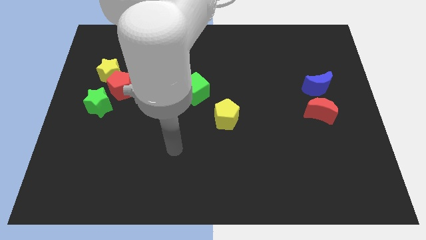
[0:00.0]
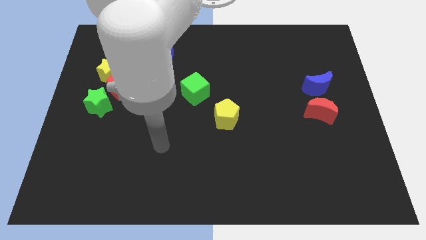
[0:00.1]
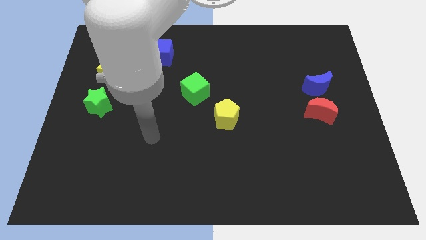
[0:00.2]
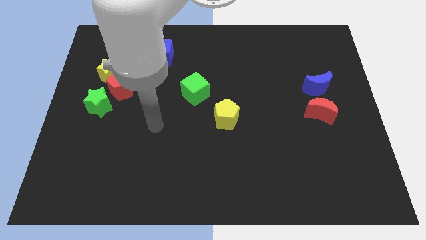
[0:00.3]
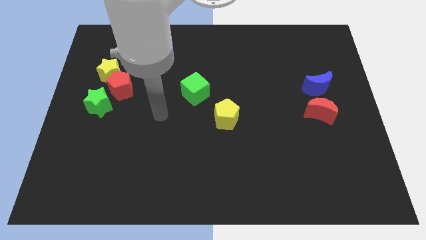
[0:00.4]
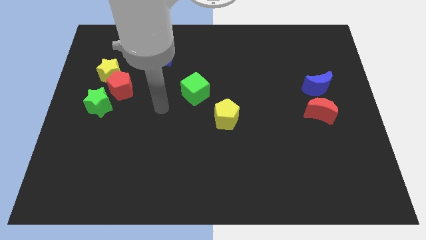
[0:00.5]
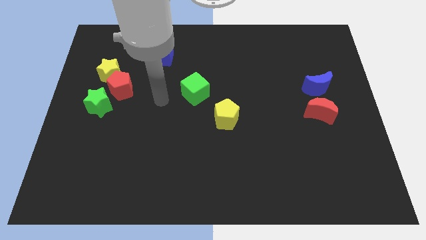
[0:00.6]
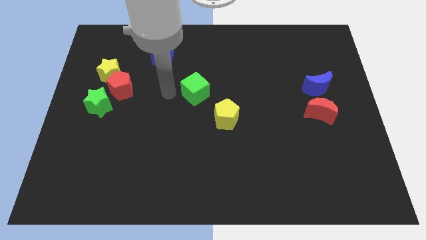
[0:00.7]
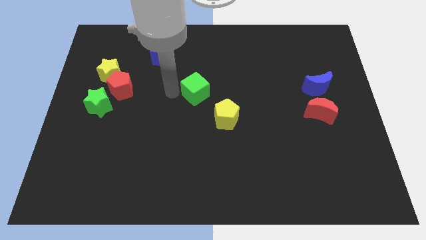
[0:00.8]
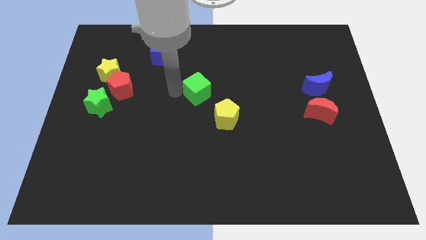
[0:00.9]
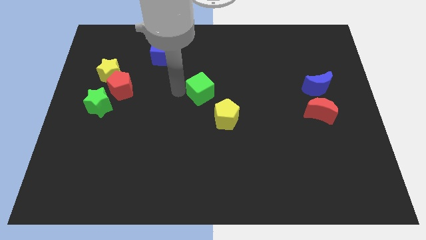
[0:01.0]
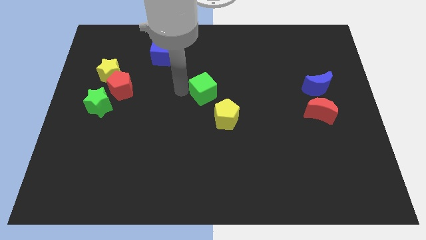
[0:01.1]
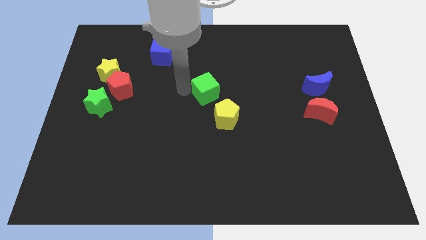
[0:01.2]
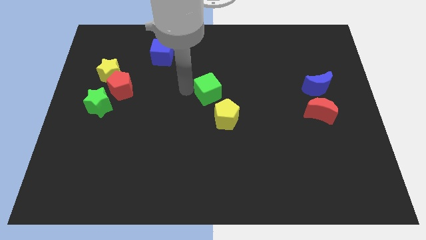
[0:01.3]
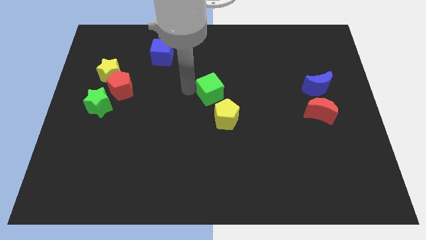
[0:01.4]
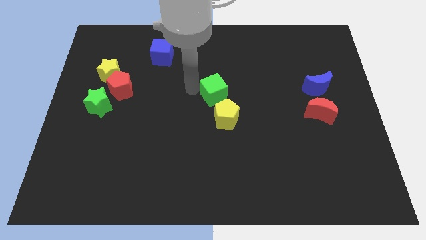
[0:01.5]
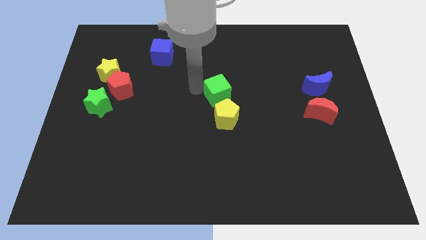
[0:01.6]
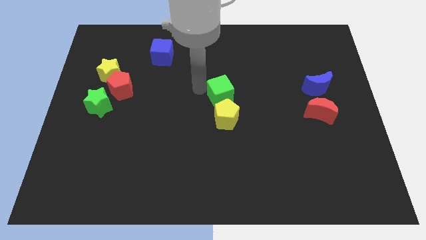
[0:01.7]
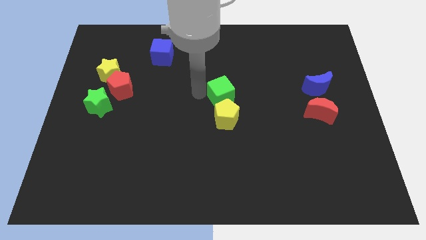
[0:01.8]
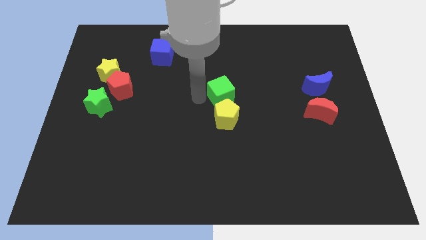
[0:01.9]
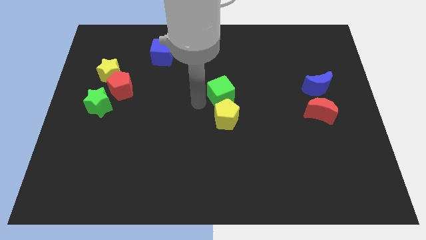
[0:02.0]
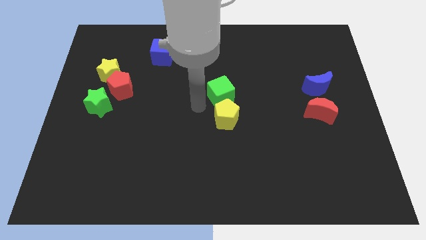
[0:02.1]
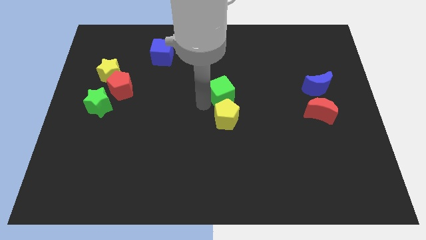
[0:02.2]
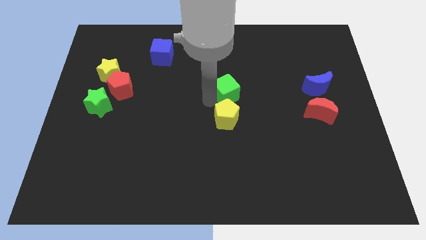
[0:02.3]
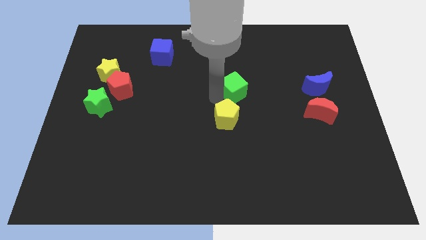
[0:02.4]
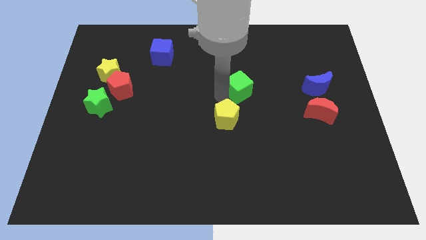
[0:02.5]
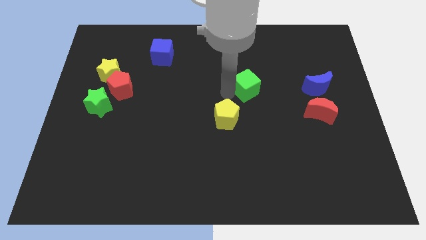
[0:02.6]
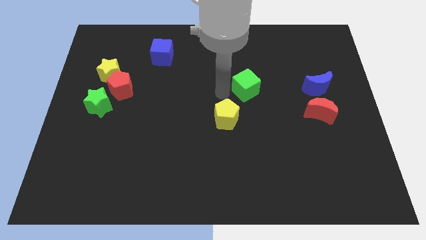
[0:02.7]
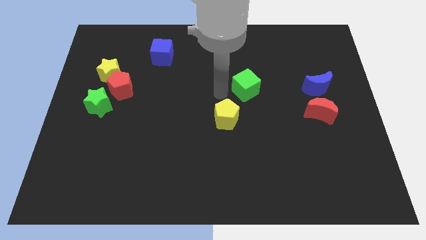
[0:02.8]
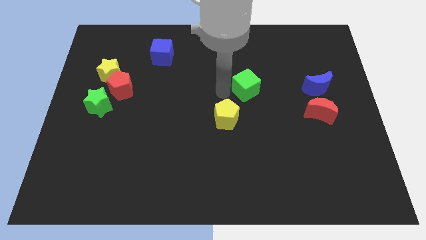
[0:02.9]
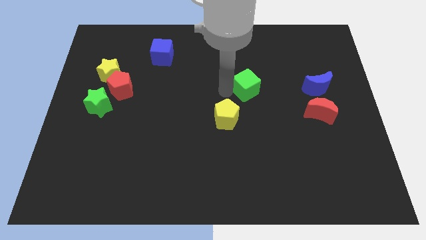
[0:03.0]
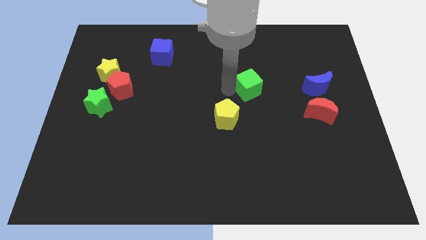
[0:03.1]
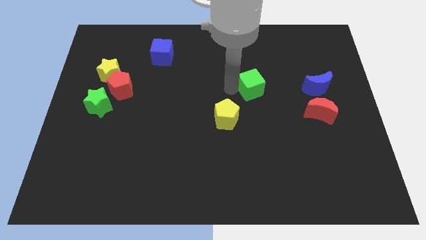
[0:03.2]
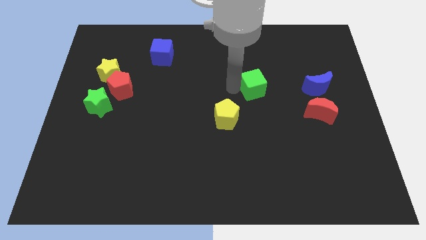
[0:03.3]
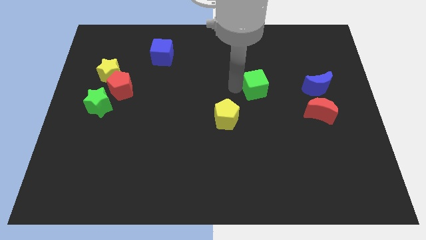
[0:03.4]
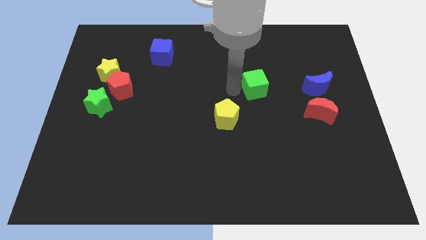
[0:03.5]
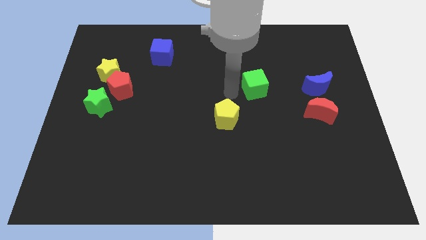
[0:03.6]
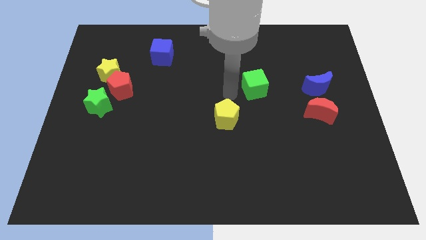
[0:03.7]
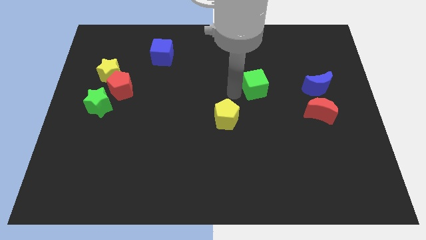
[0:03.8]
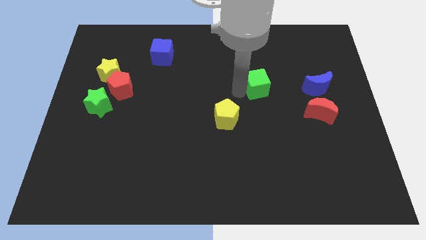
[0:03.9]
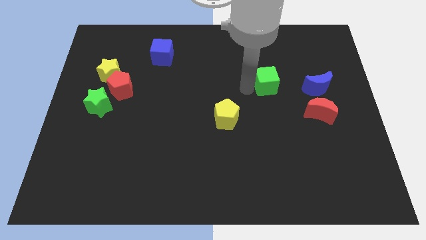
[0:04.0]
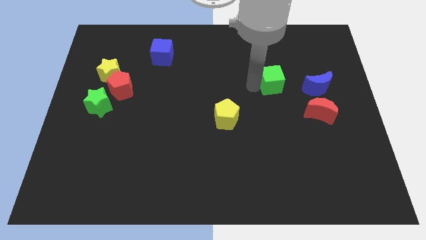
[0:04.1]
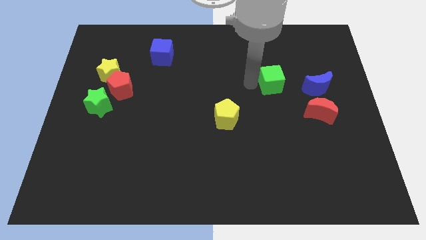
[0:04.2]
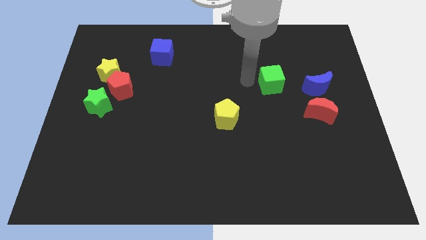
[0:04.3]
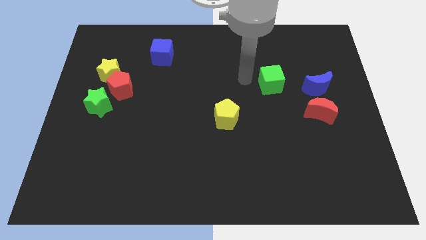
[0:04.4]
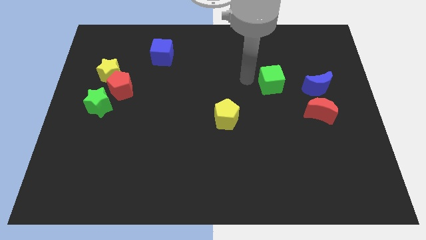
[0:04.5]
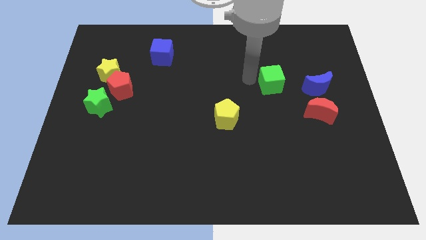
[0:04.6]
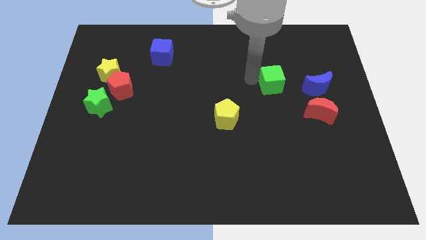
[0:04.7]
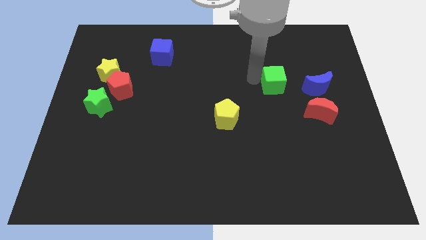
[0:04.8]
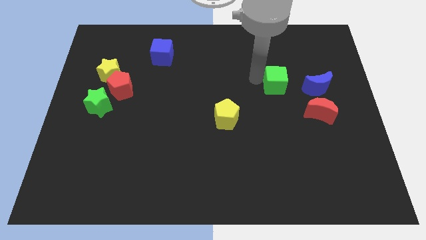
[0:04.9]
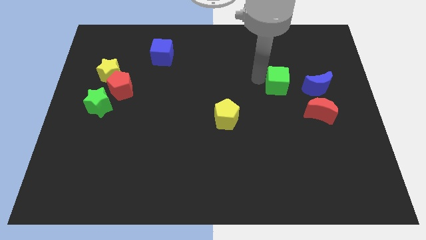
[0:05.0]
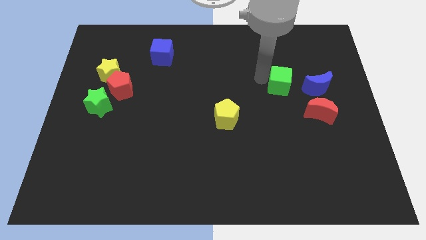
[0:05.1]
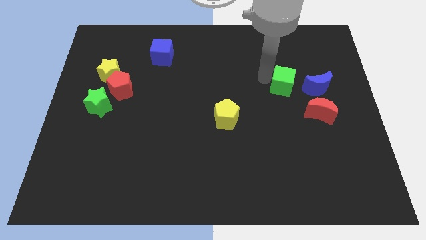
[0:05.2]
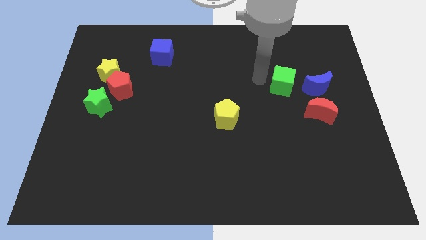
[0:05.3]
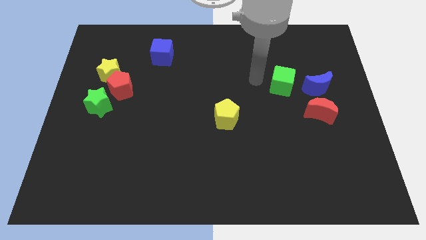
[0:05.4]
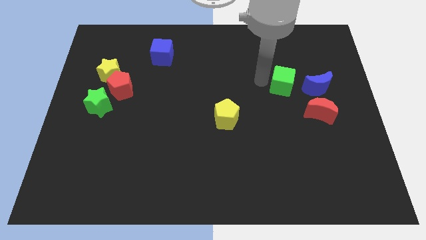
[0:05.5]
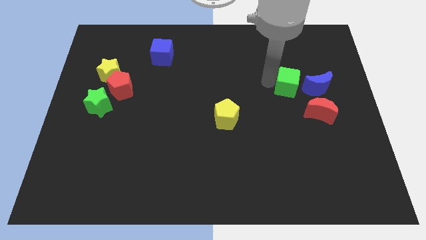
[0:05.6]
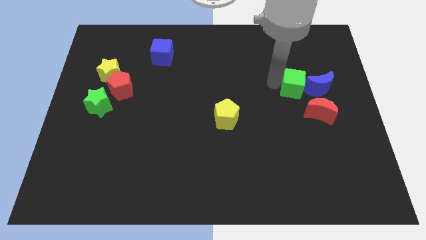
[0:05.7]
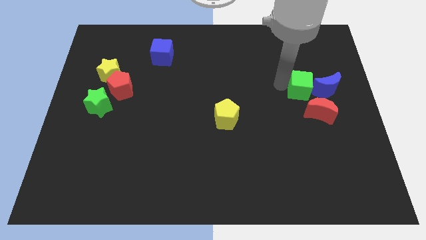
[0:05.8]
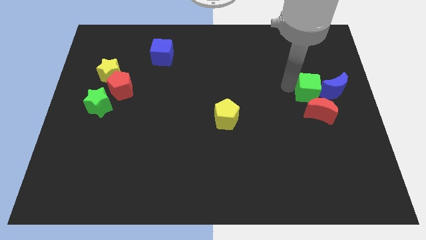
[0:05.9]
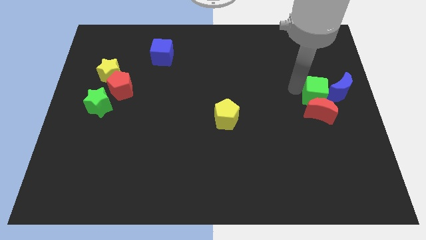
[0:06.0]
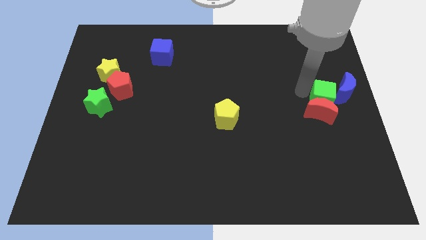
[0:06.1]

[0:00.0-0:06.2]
move the green cube next to the blue moon

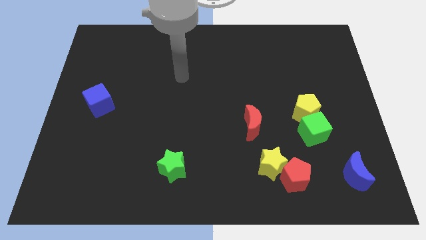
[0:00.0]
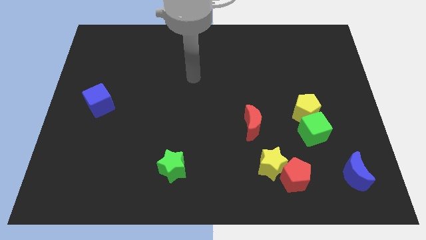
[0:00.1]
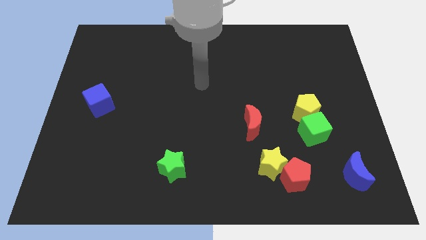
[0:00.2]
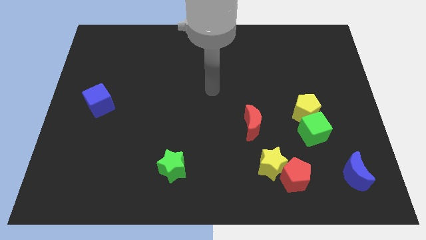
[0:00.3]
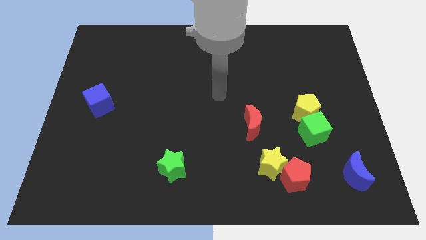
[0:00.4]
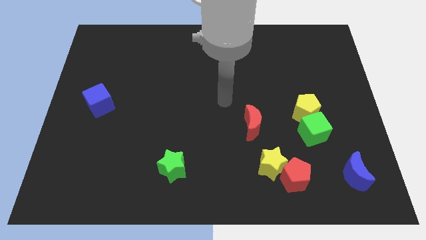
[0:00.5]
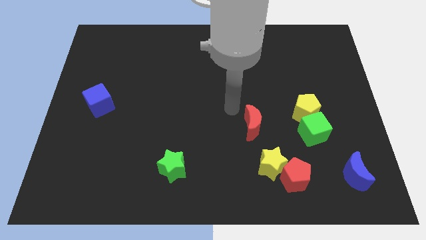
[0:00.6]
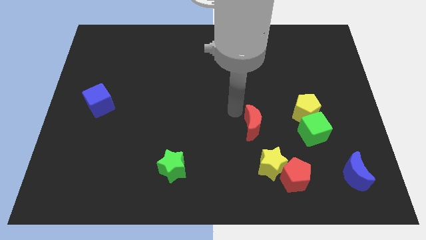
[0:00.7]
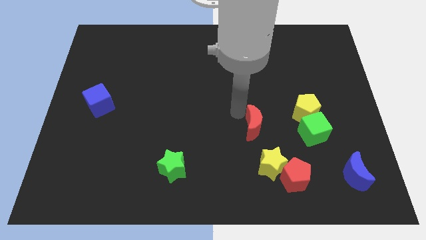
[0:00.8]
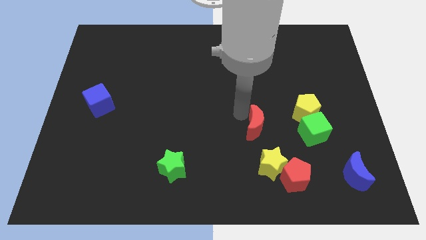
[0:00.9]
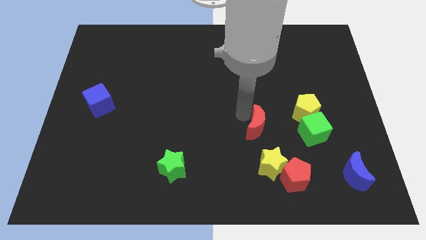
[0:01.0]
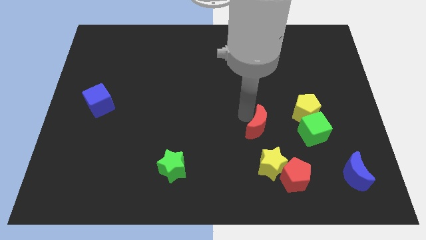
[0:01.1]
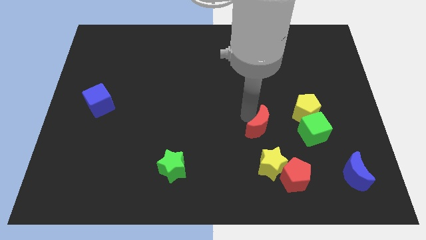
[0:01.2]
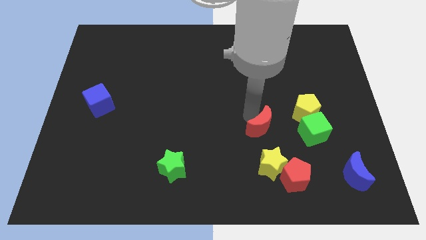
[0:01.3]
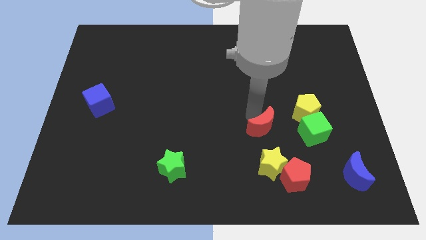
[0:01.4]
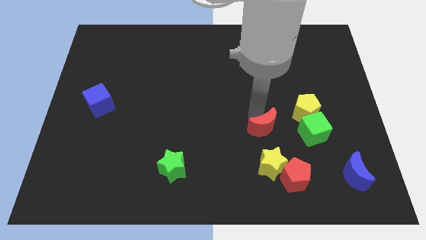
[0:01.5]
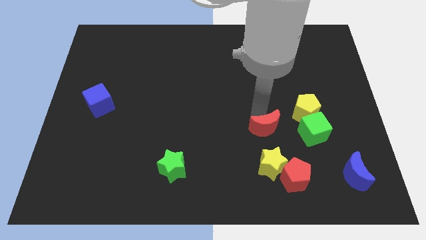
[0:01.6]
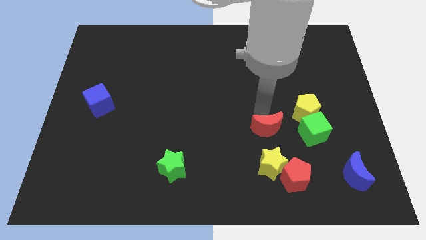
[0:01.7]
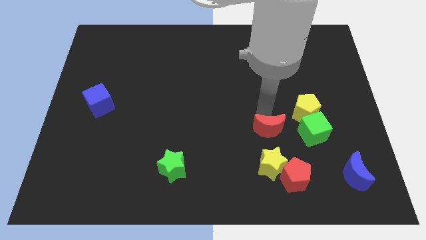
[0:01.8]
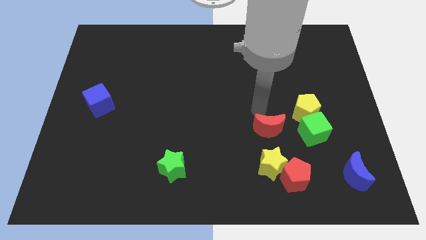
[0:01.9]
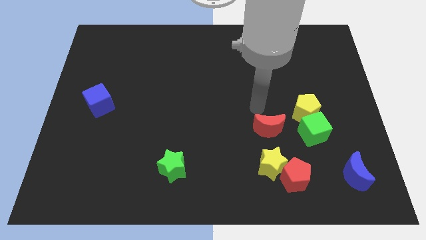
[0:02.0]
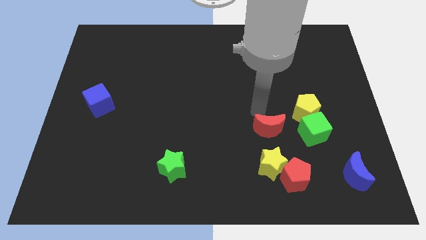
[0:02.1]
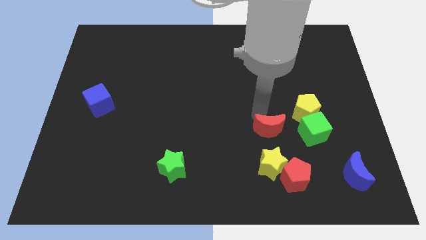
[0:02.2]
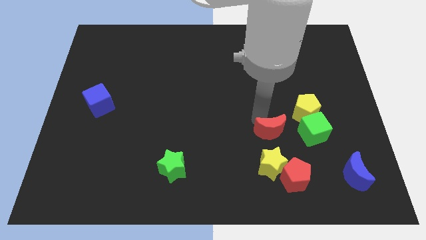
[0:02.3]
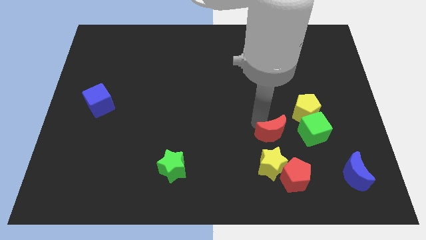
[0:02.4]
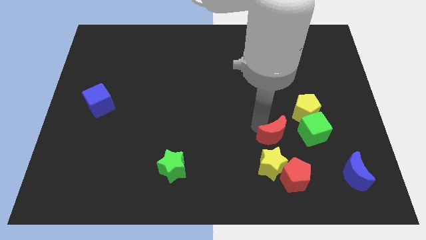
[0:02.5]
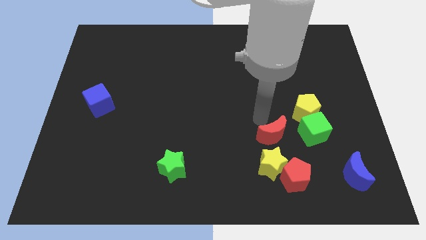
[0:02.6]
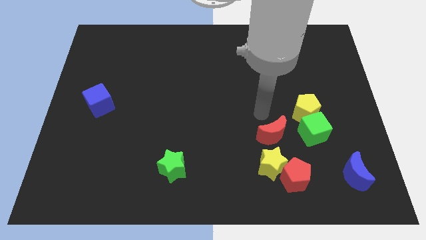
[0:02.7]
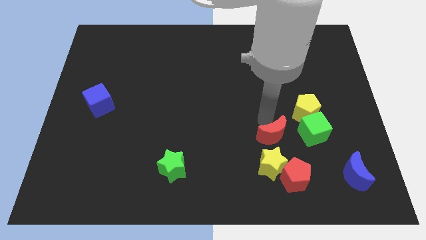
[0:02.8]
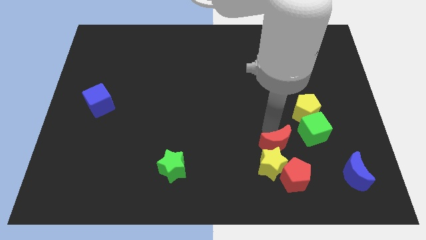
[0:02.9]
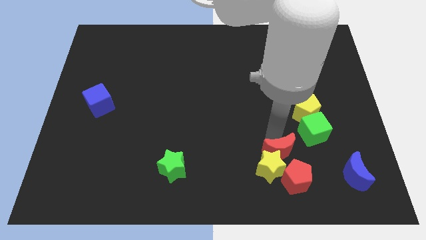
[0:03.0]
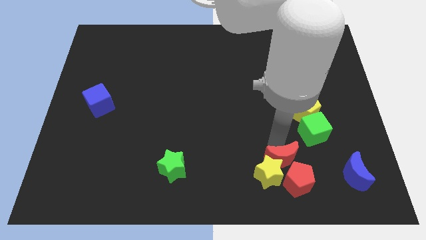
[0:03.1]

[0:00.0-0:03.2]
move the red moon towards the red pentagon
